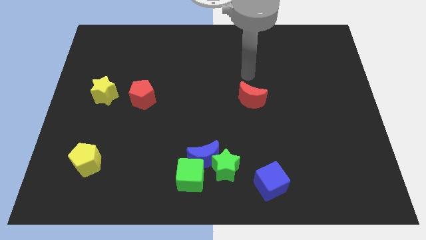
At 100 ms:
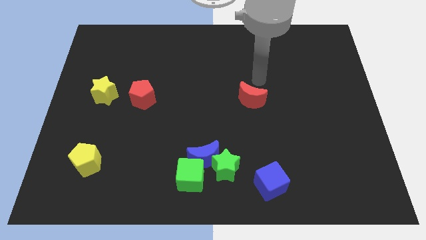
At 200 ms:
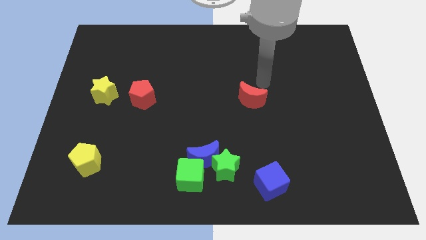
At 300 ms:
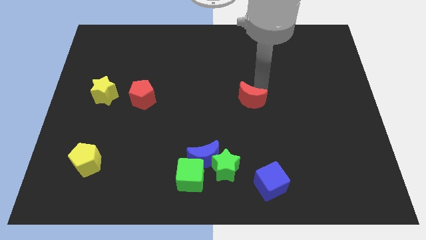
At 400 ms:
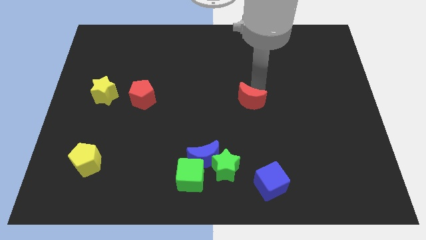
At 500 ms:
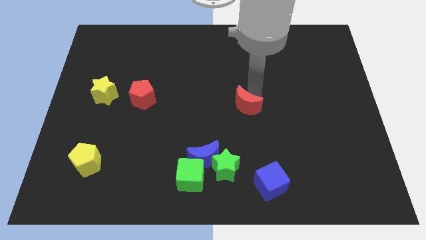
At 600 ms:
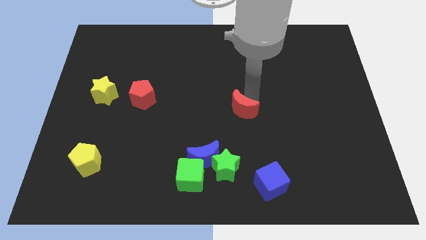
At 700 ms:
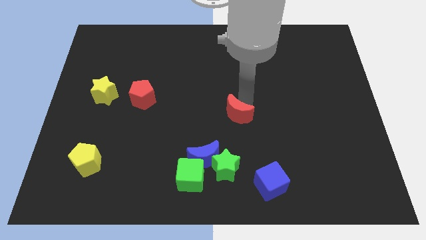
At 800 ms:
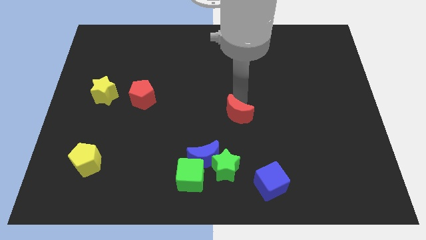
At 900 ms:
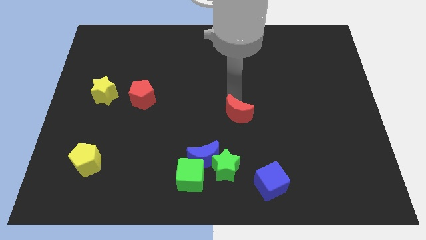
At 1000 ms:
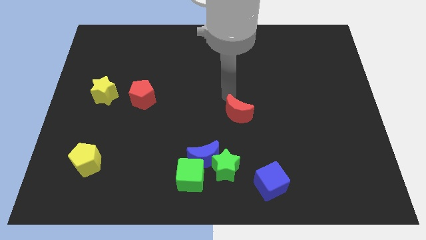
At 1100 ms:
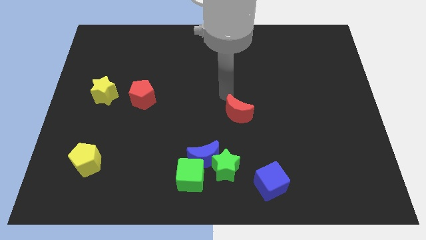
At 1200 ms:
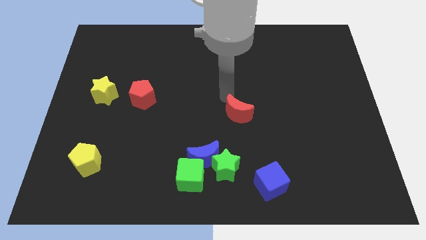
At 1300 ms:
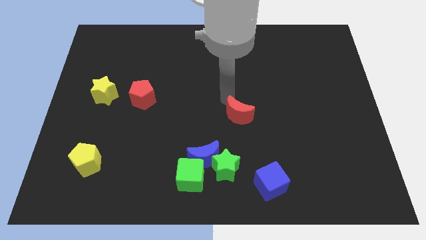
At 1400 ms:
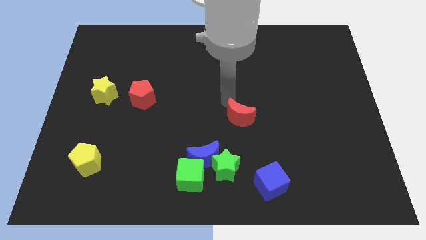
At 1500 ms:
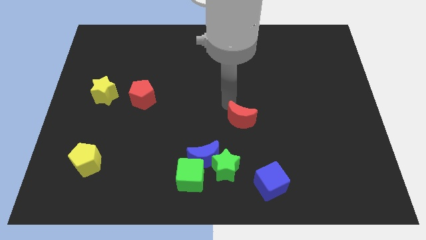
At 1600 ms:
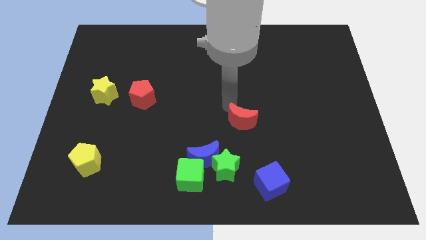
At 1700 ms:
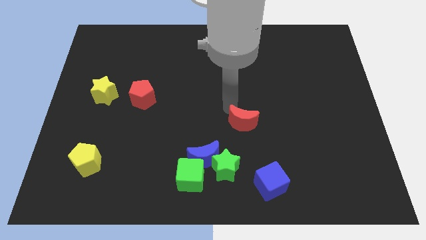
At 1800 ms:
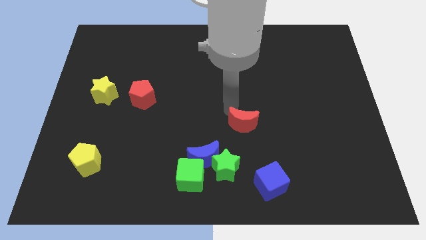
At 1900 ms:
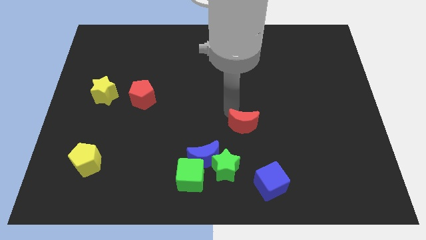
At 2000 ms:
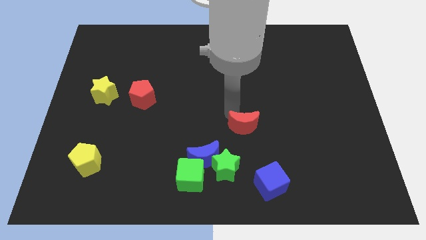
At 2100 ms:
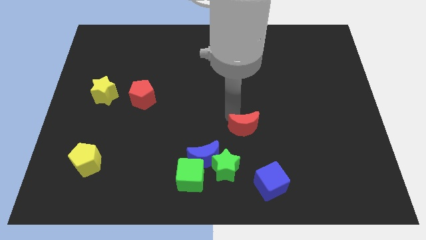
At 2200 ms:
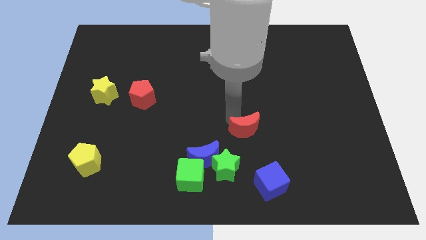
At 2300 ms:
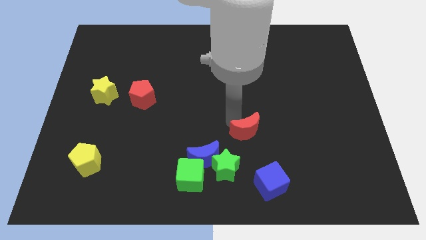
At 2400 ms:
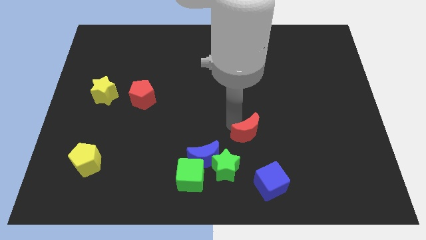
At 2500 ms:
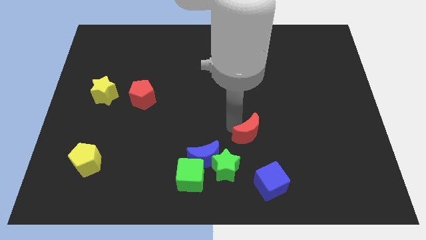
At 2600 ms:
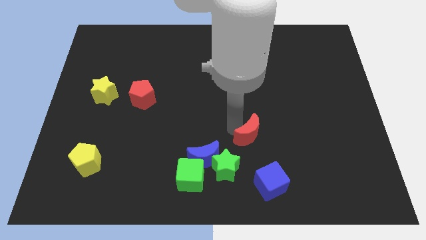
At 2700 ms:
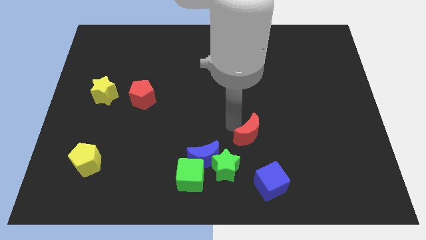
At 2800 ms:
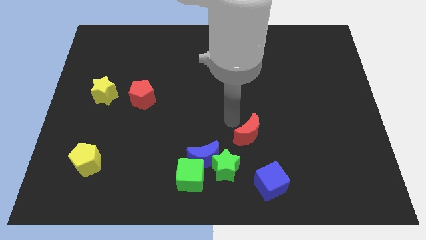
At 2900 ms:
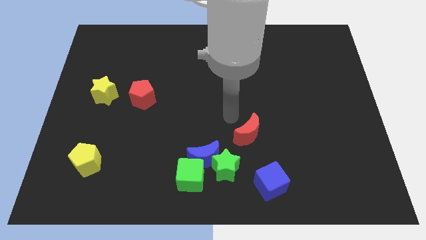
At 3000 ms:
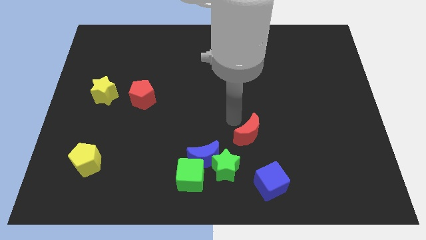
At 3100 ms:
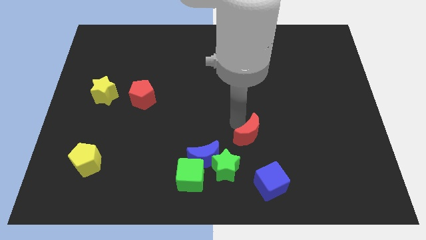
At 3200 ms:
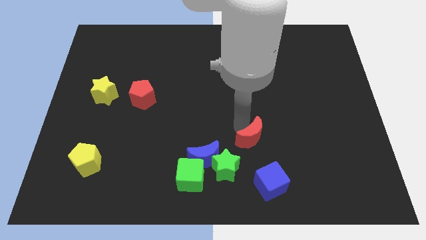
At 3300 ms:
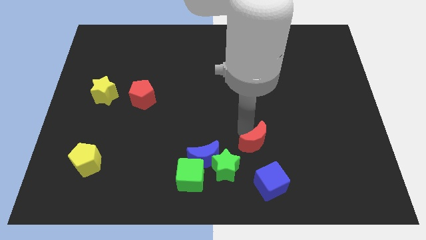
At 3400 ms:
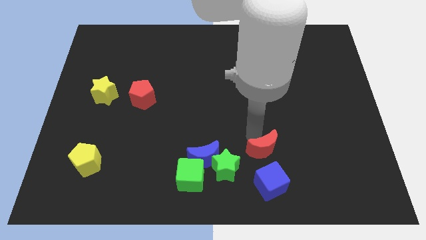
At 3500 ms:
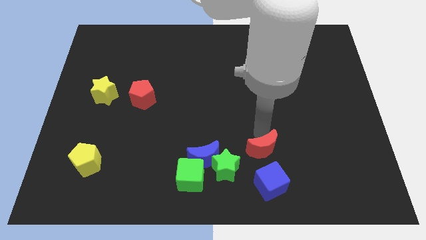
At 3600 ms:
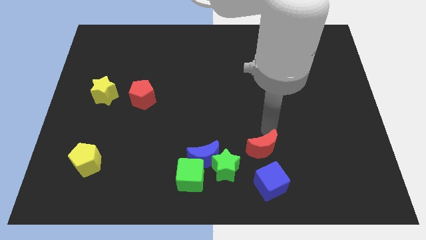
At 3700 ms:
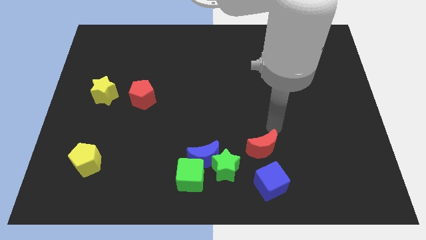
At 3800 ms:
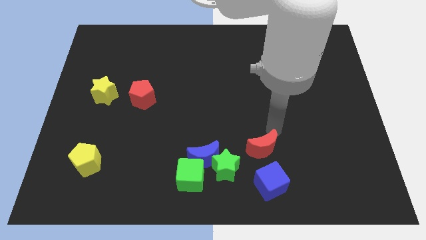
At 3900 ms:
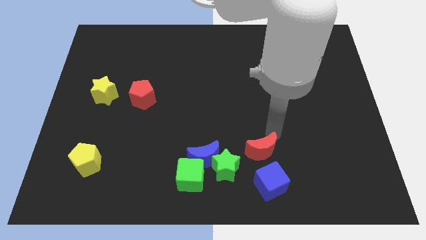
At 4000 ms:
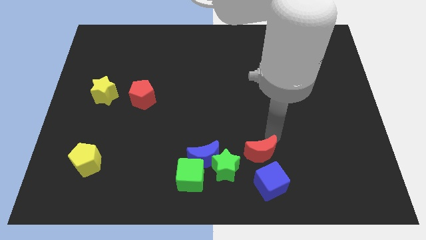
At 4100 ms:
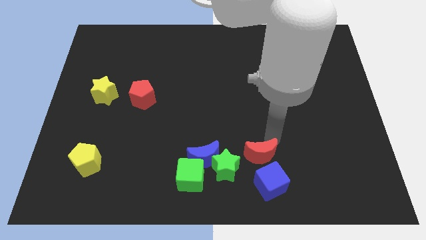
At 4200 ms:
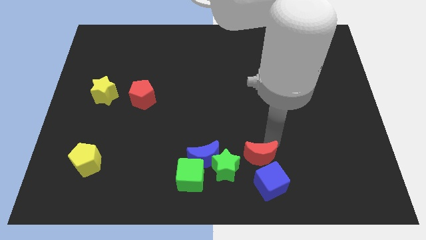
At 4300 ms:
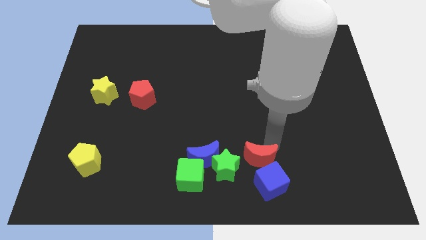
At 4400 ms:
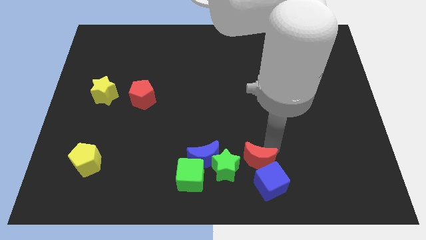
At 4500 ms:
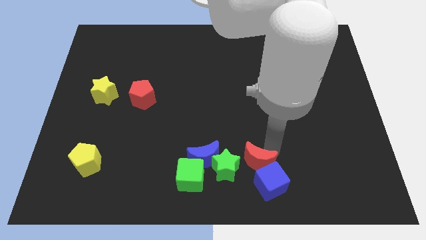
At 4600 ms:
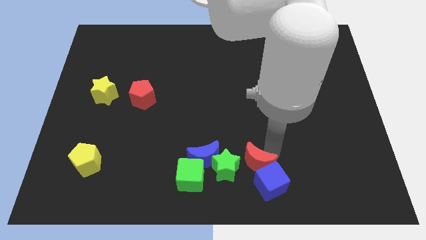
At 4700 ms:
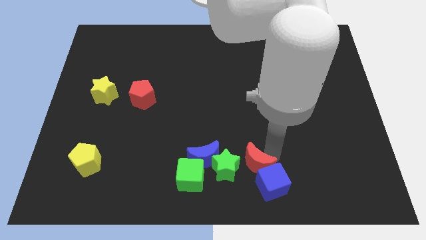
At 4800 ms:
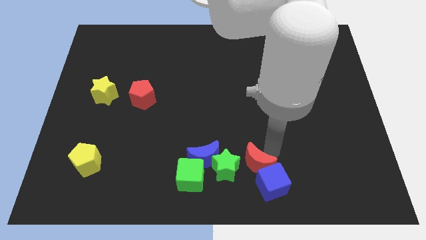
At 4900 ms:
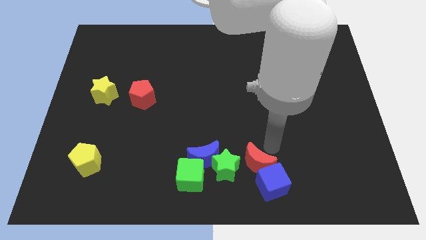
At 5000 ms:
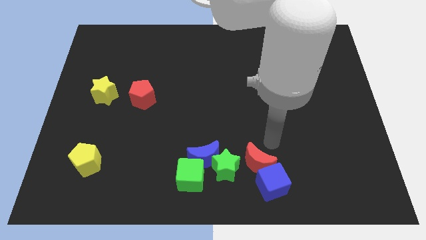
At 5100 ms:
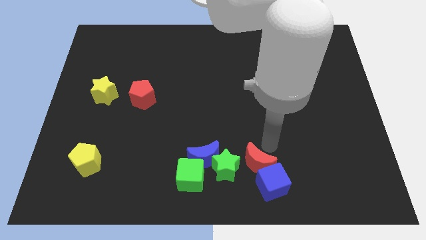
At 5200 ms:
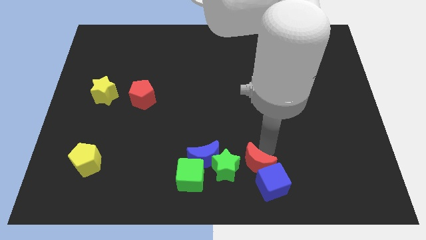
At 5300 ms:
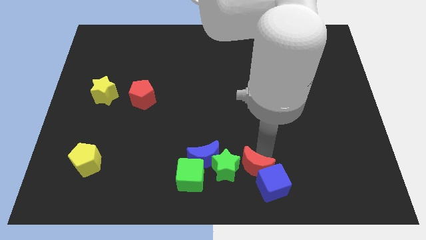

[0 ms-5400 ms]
move the red moon to the bottom

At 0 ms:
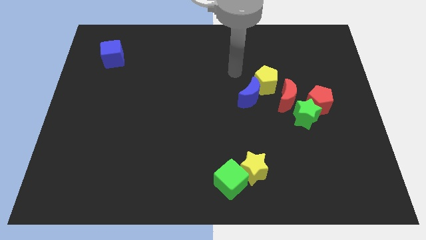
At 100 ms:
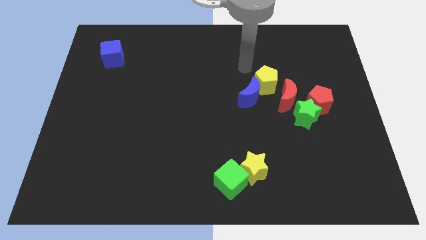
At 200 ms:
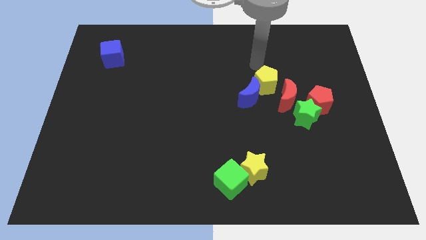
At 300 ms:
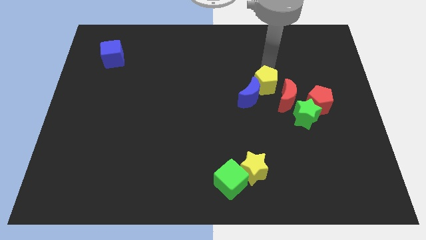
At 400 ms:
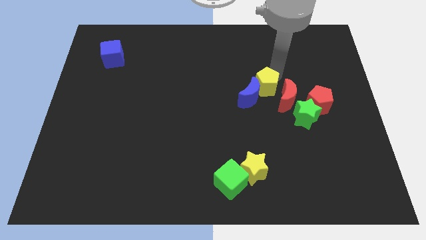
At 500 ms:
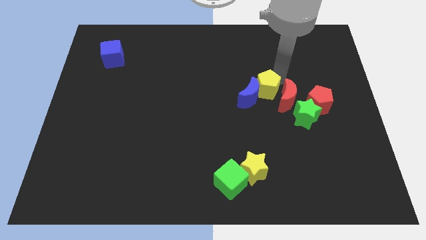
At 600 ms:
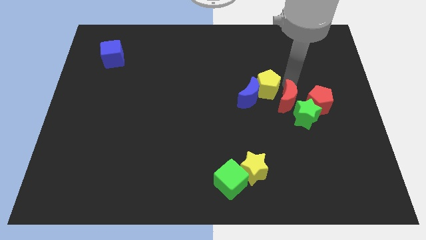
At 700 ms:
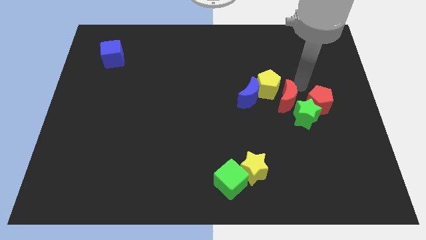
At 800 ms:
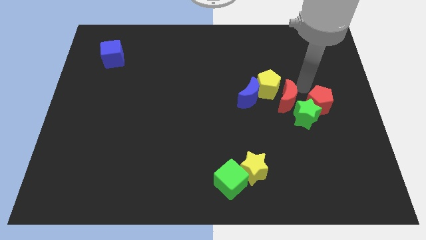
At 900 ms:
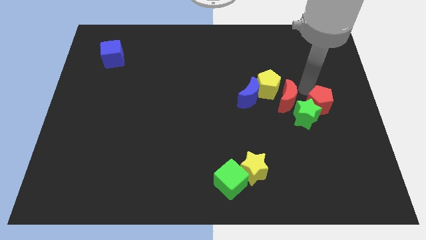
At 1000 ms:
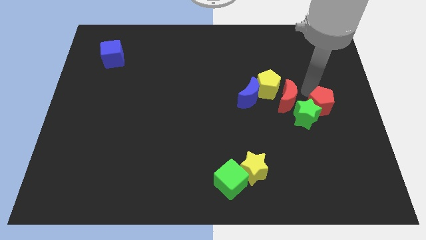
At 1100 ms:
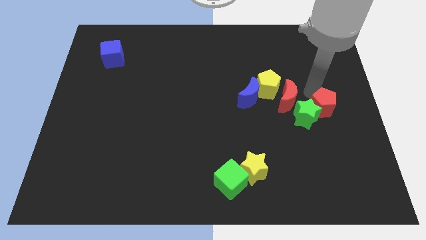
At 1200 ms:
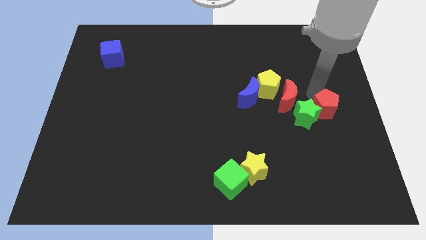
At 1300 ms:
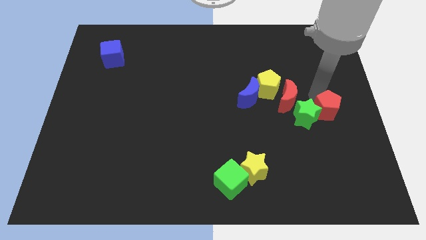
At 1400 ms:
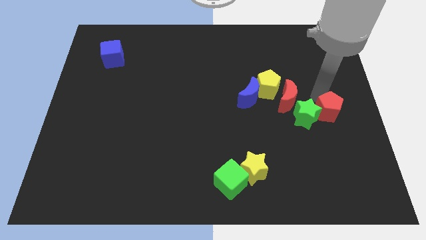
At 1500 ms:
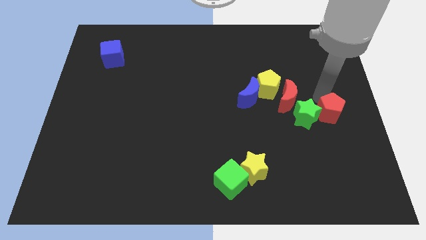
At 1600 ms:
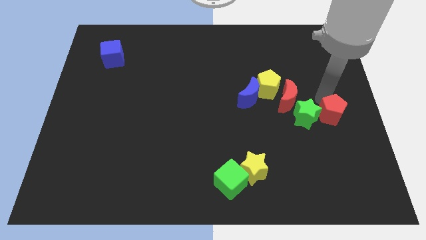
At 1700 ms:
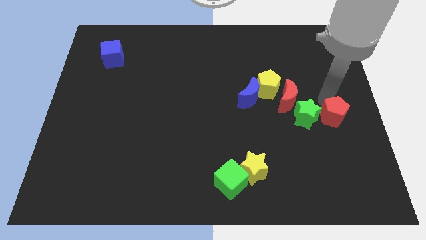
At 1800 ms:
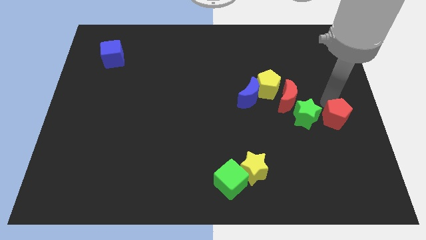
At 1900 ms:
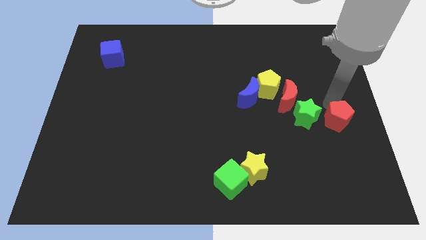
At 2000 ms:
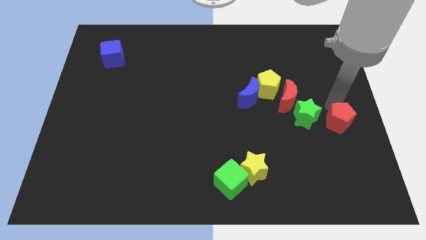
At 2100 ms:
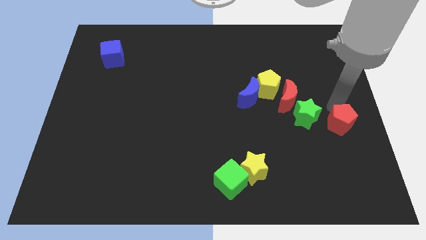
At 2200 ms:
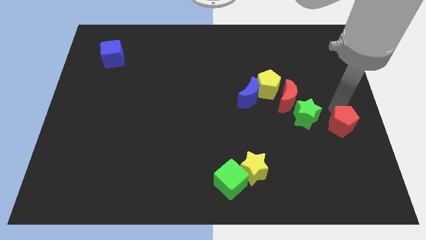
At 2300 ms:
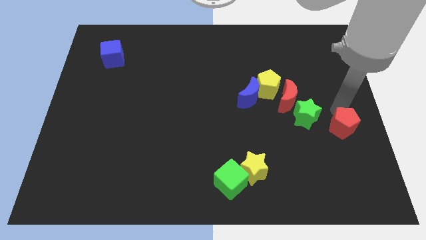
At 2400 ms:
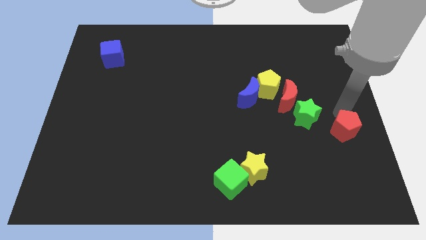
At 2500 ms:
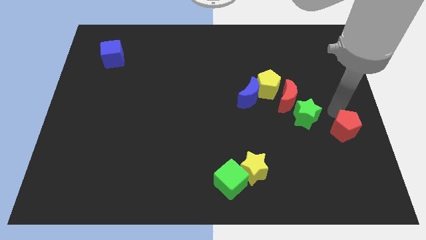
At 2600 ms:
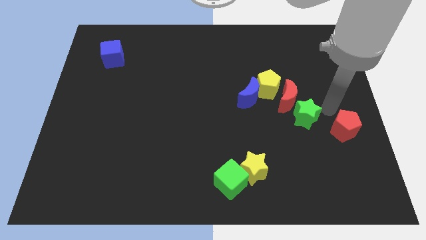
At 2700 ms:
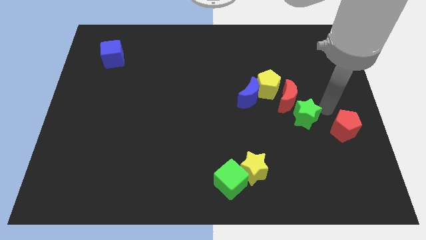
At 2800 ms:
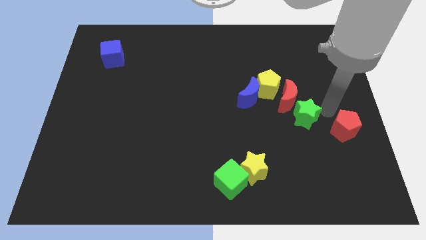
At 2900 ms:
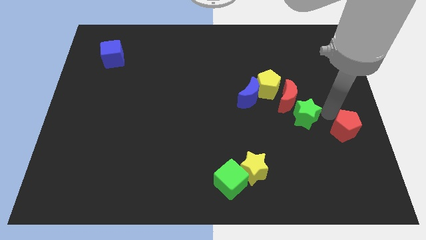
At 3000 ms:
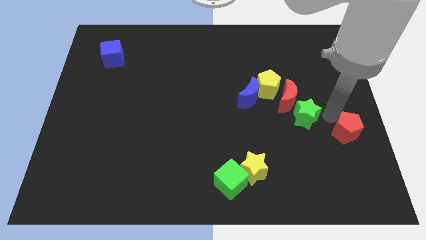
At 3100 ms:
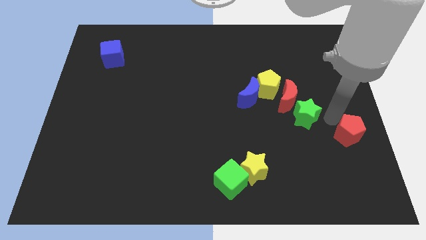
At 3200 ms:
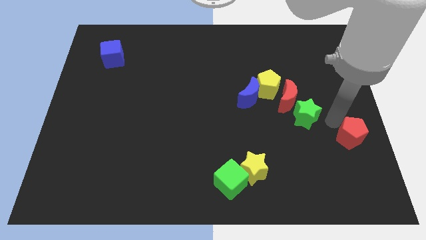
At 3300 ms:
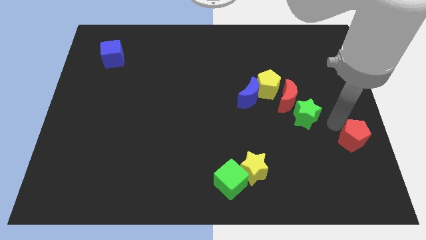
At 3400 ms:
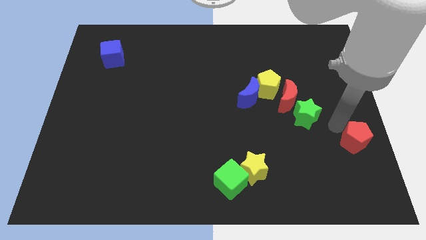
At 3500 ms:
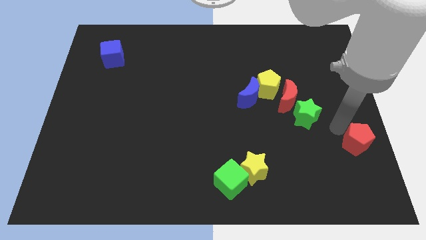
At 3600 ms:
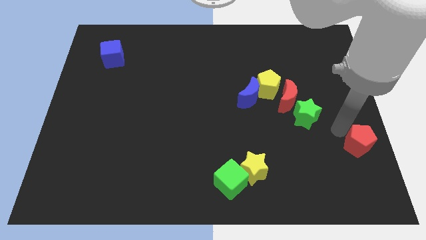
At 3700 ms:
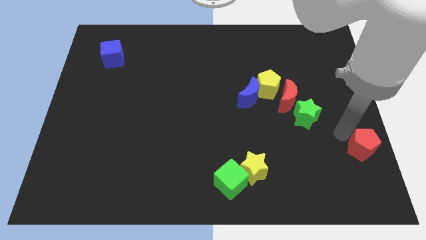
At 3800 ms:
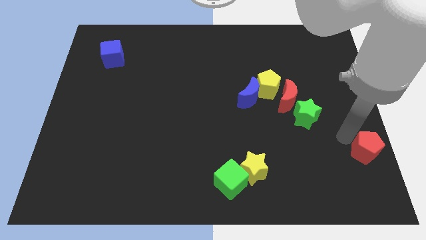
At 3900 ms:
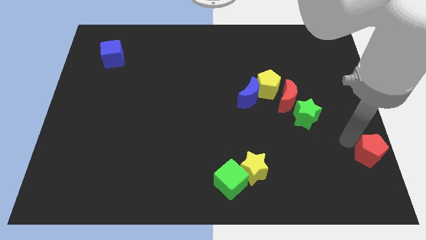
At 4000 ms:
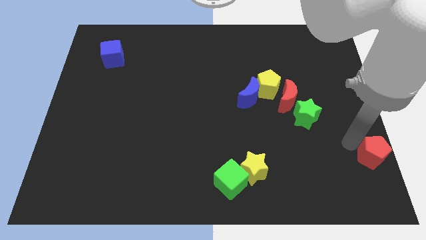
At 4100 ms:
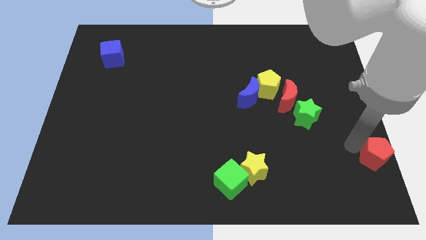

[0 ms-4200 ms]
slide the red pentagon to the bottom right of the board
